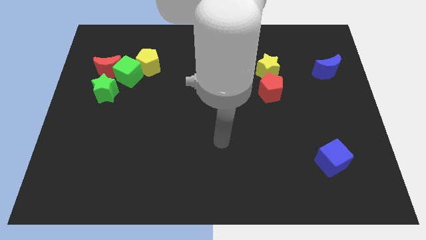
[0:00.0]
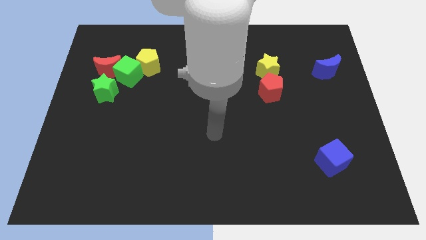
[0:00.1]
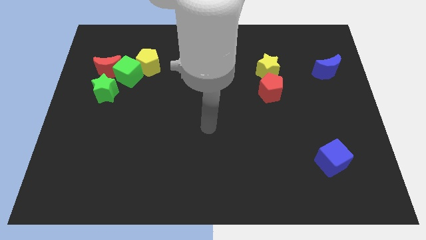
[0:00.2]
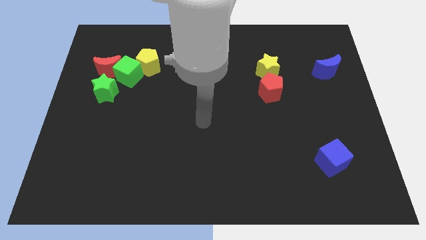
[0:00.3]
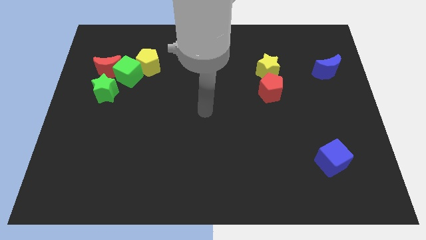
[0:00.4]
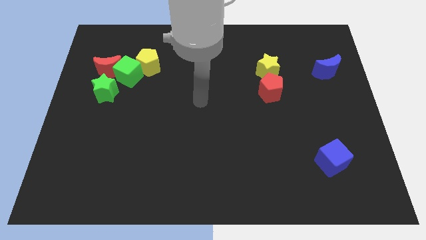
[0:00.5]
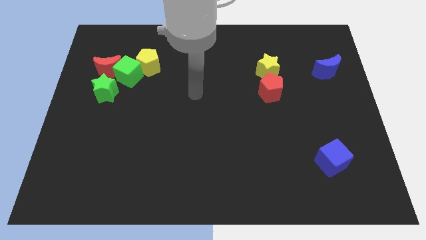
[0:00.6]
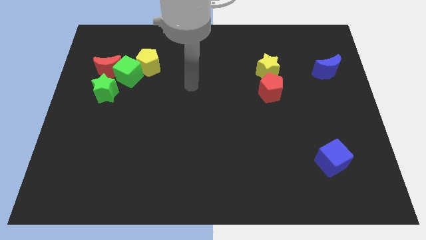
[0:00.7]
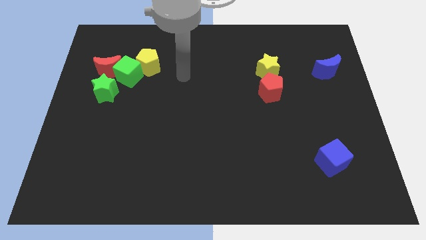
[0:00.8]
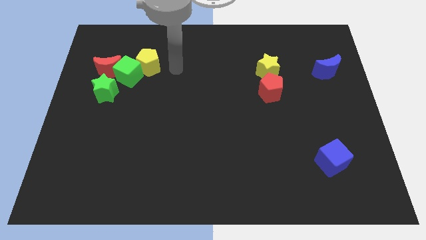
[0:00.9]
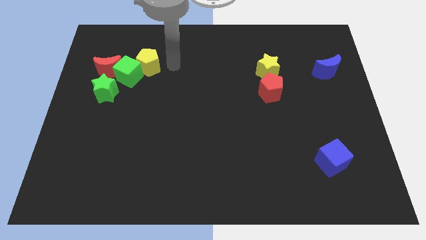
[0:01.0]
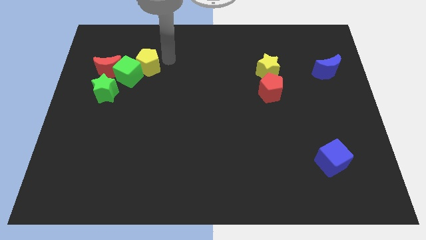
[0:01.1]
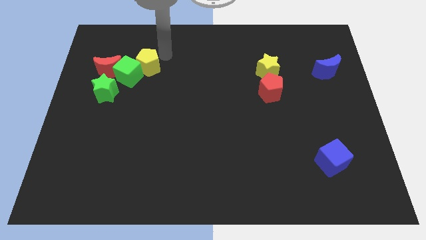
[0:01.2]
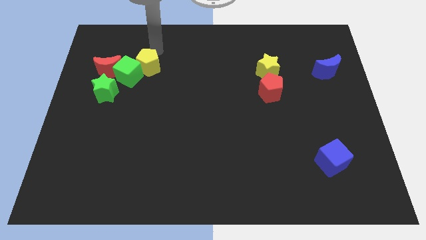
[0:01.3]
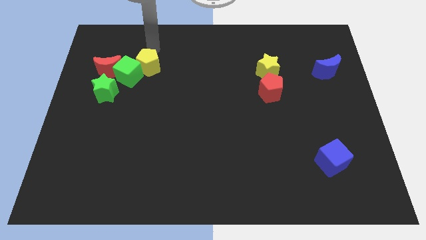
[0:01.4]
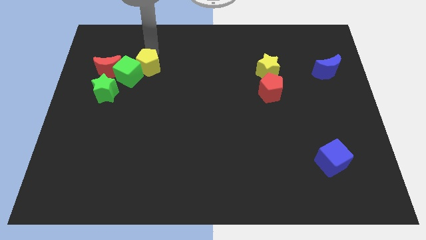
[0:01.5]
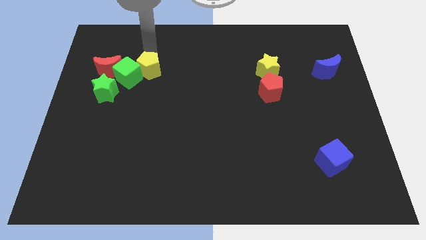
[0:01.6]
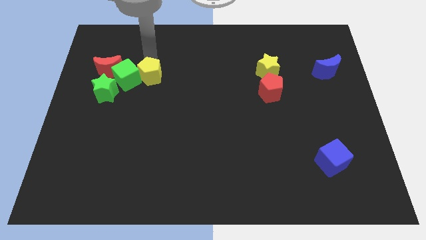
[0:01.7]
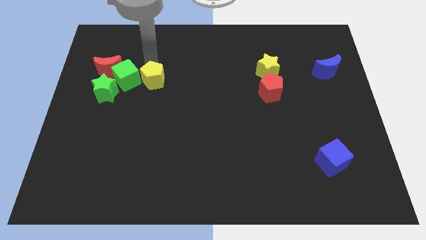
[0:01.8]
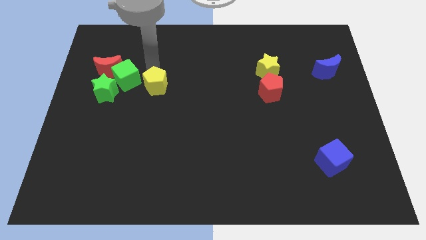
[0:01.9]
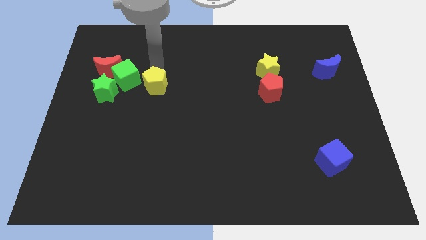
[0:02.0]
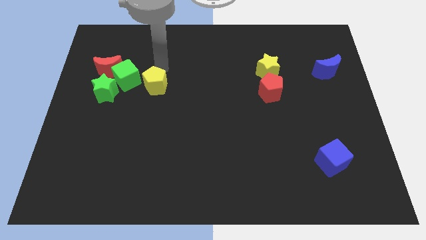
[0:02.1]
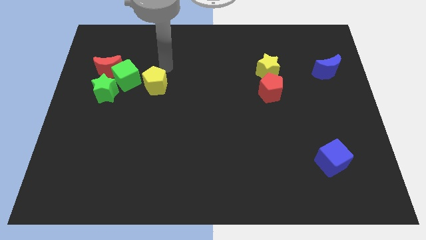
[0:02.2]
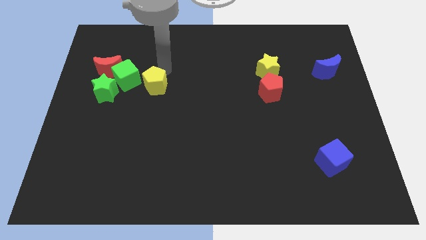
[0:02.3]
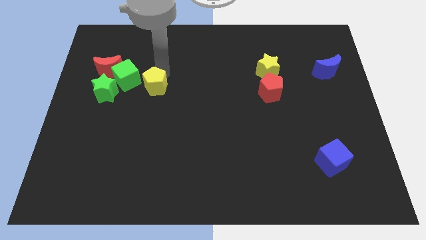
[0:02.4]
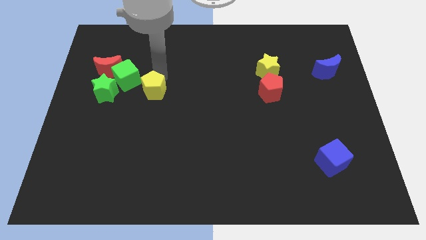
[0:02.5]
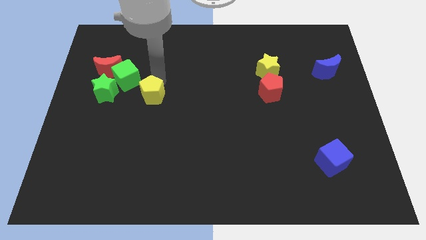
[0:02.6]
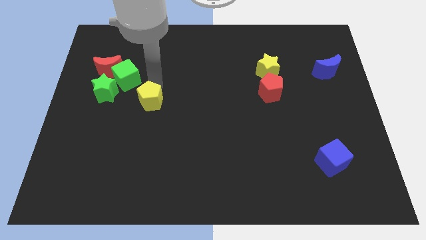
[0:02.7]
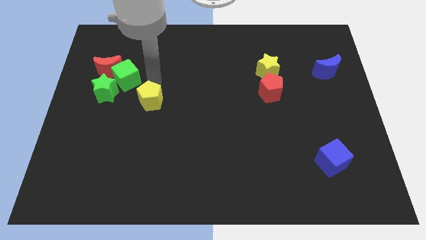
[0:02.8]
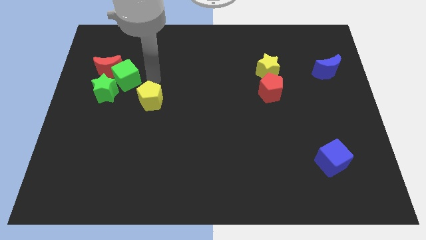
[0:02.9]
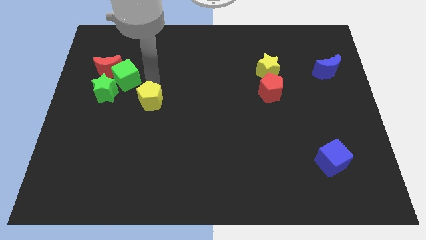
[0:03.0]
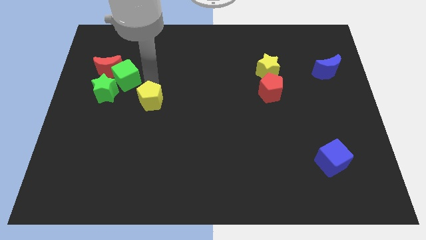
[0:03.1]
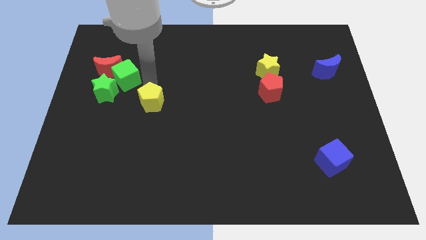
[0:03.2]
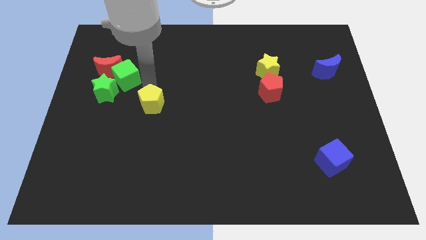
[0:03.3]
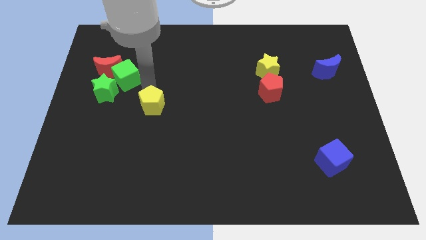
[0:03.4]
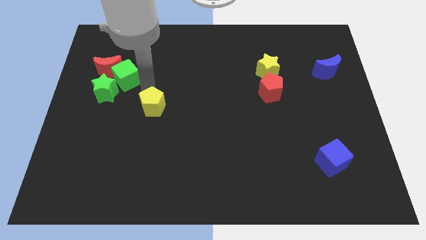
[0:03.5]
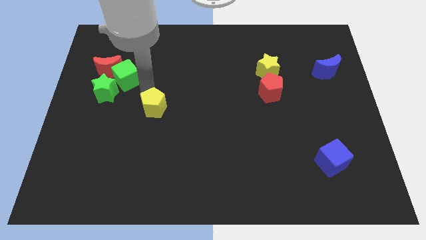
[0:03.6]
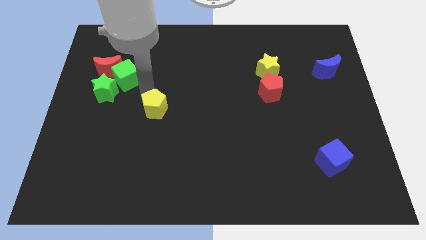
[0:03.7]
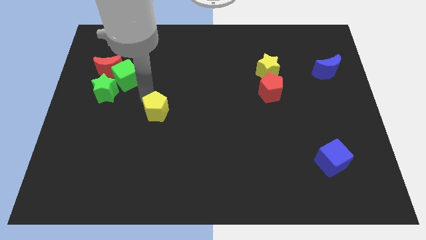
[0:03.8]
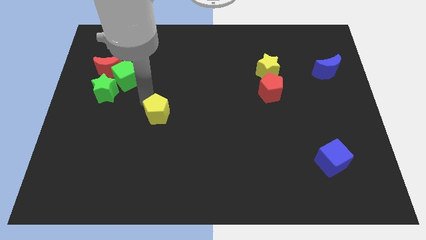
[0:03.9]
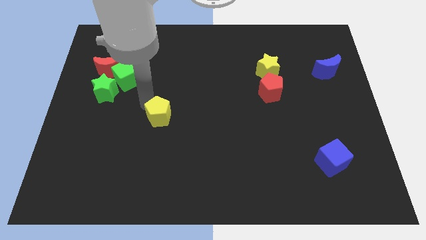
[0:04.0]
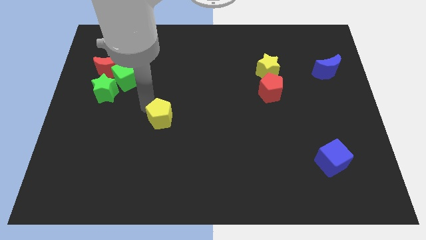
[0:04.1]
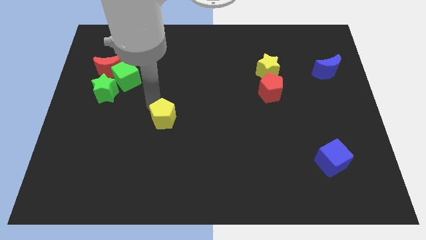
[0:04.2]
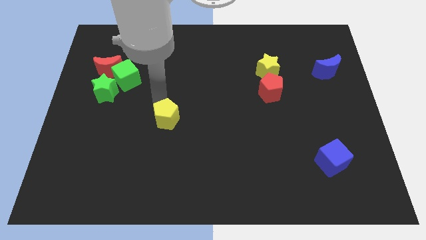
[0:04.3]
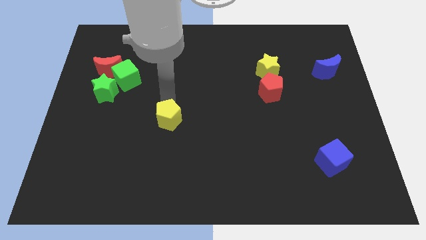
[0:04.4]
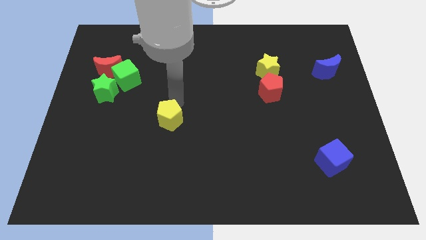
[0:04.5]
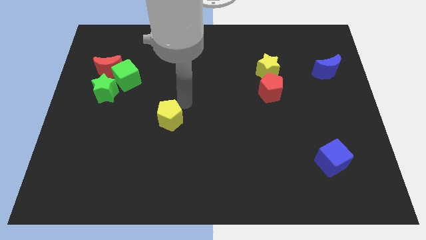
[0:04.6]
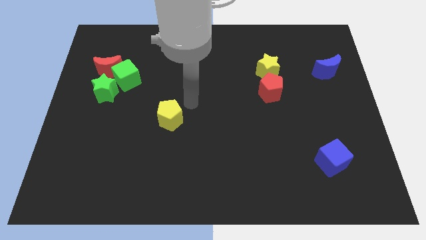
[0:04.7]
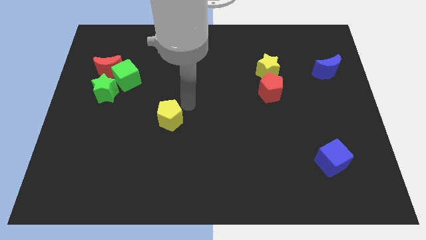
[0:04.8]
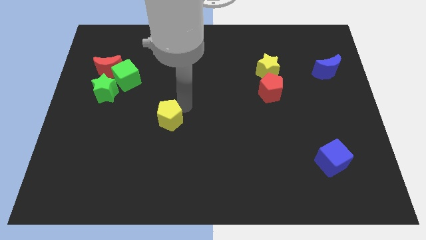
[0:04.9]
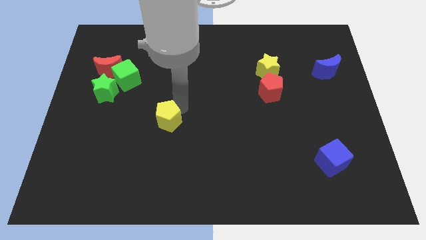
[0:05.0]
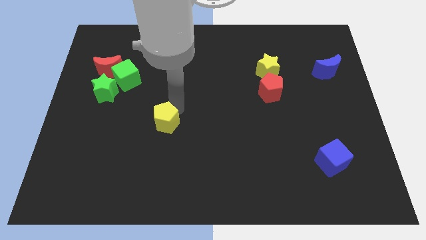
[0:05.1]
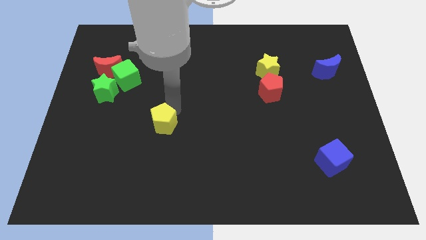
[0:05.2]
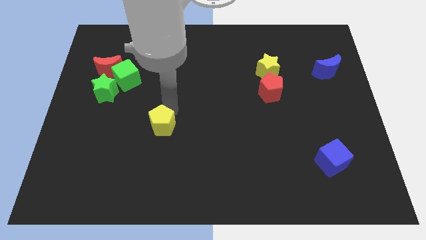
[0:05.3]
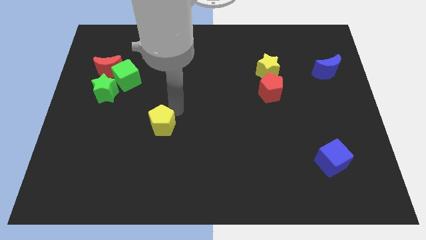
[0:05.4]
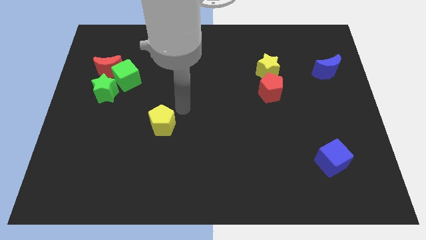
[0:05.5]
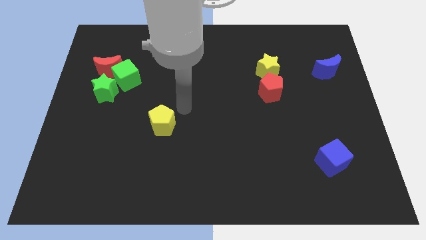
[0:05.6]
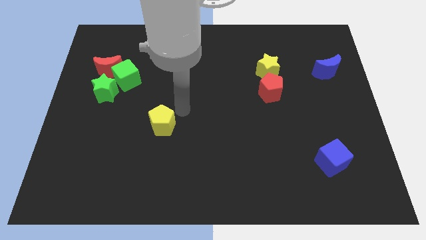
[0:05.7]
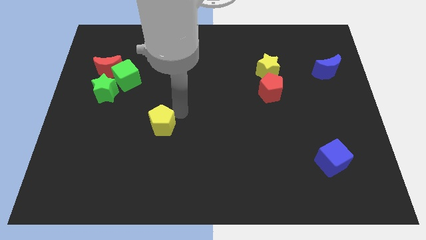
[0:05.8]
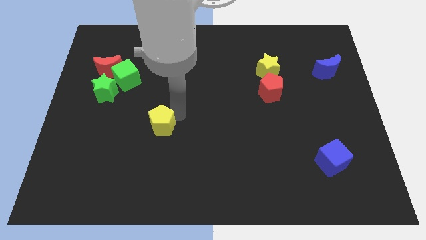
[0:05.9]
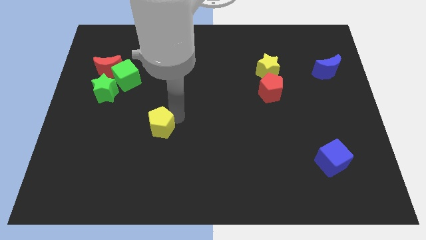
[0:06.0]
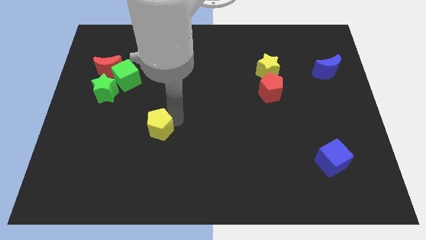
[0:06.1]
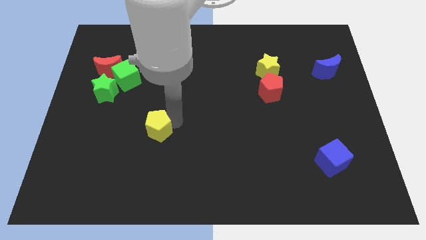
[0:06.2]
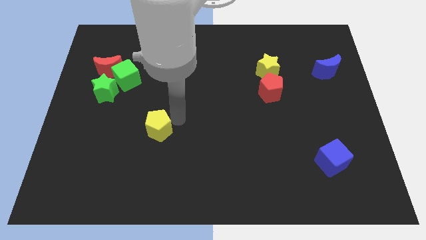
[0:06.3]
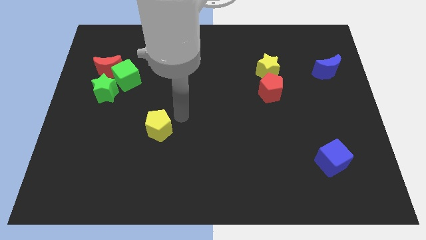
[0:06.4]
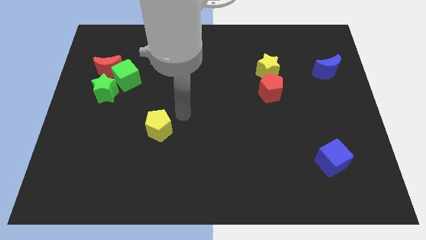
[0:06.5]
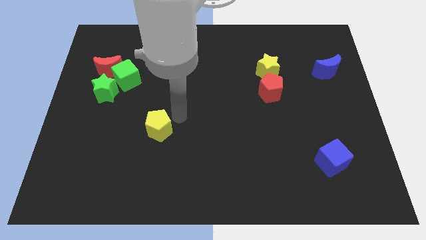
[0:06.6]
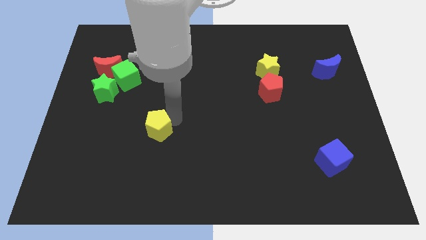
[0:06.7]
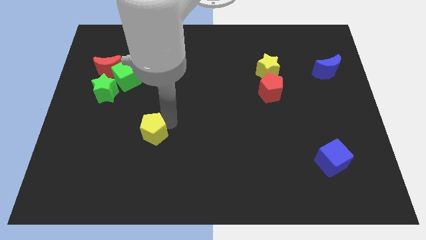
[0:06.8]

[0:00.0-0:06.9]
slide the yellow pentagon down

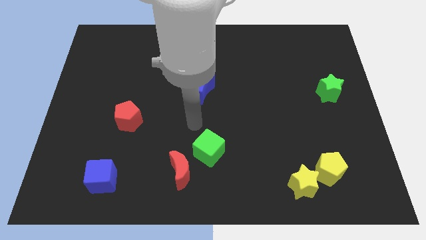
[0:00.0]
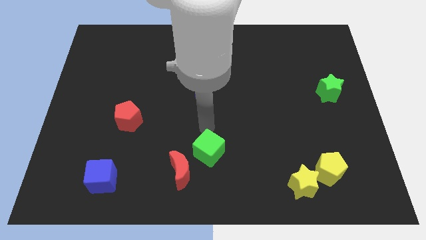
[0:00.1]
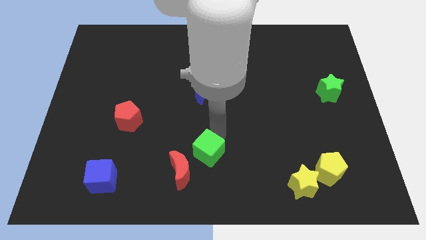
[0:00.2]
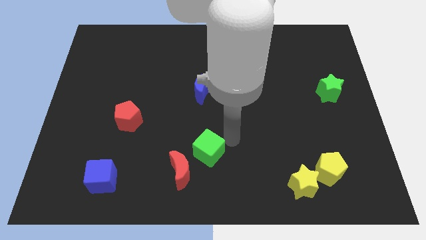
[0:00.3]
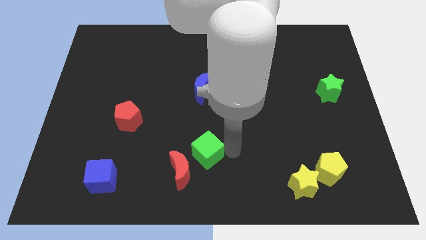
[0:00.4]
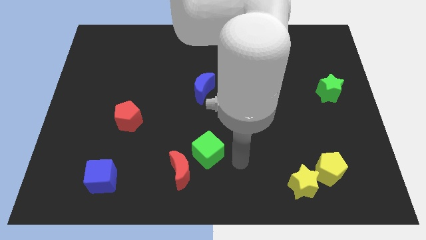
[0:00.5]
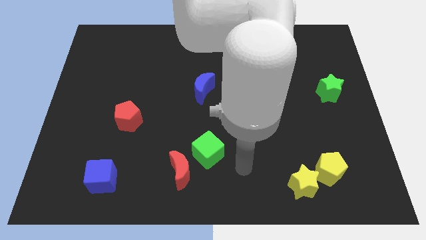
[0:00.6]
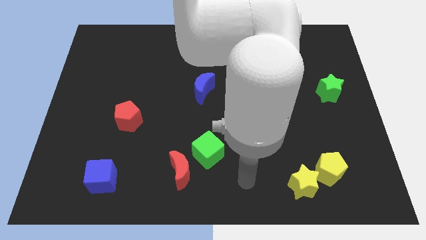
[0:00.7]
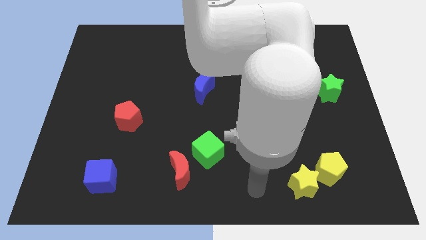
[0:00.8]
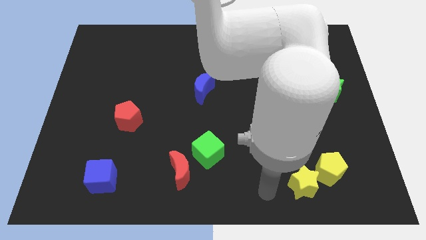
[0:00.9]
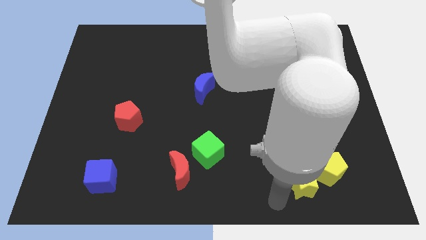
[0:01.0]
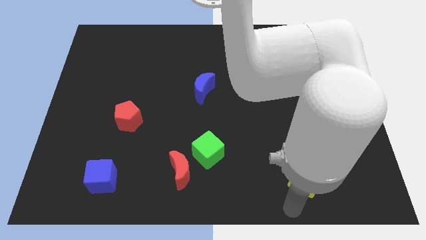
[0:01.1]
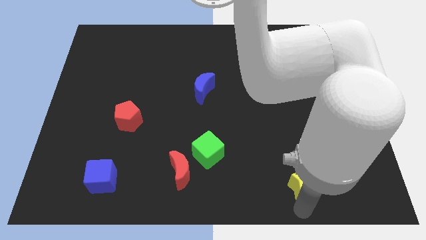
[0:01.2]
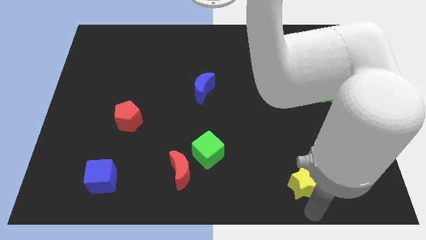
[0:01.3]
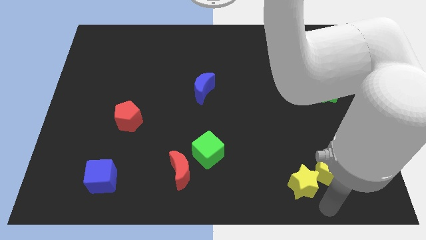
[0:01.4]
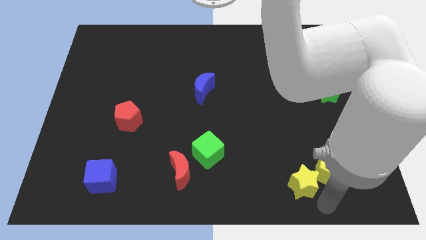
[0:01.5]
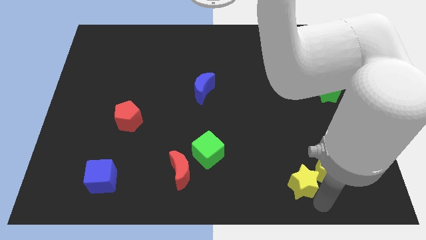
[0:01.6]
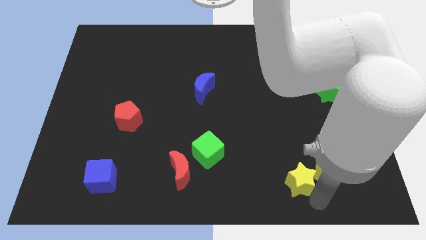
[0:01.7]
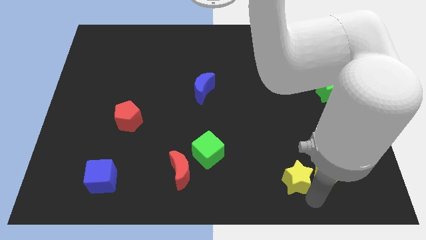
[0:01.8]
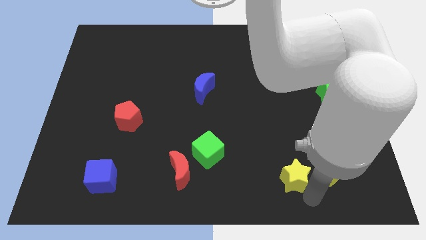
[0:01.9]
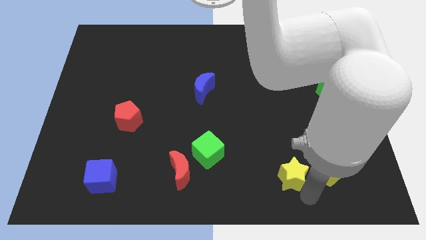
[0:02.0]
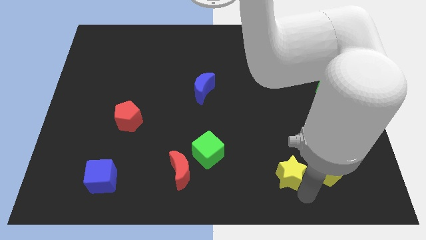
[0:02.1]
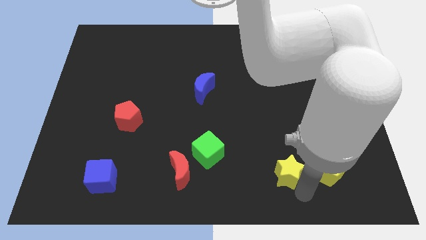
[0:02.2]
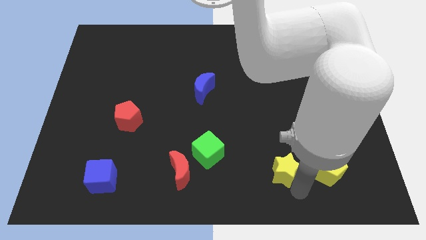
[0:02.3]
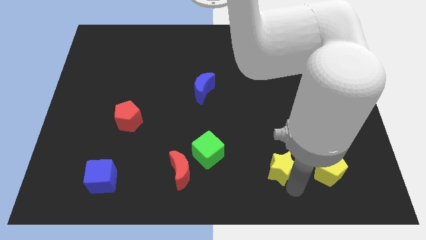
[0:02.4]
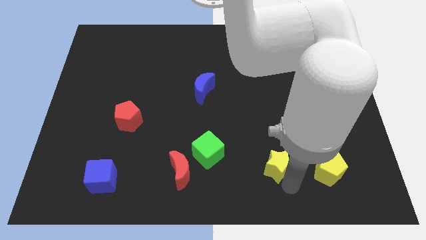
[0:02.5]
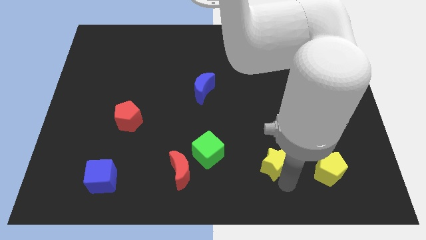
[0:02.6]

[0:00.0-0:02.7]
slightly slide the yellow star up and to the left
